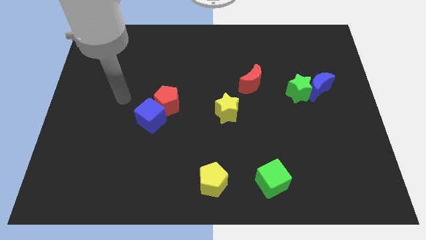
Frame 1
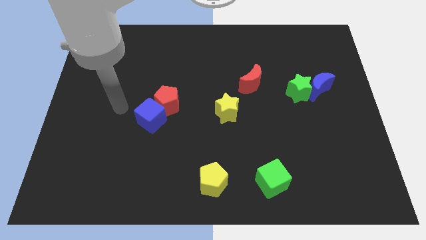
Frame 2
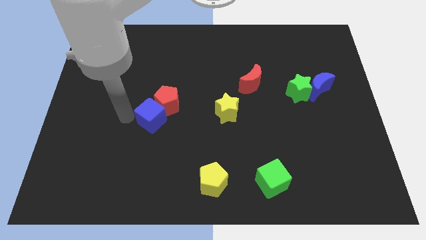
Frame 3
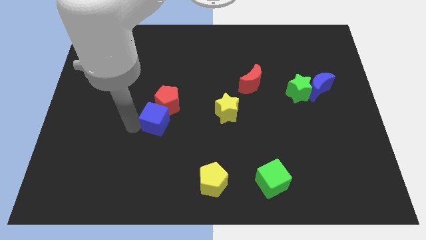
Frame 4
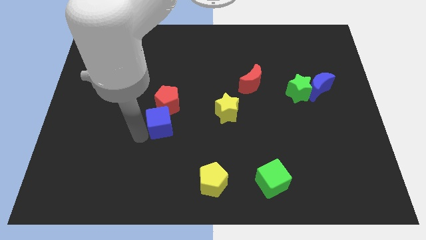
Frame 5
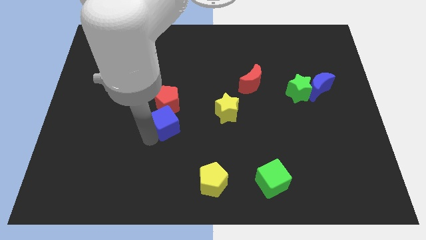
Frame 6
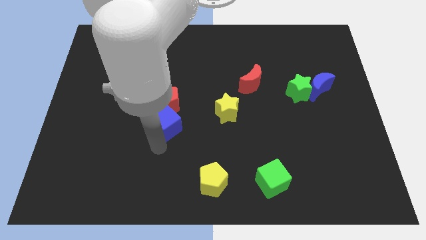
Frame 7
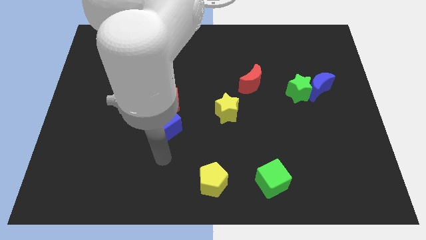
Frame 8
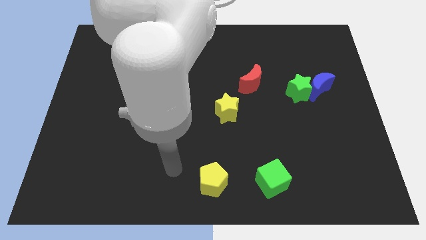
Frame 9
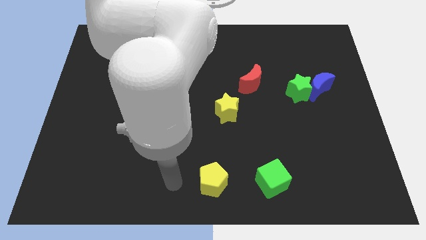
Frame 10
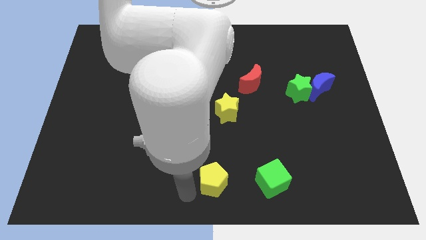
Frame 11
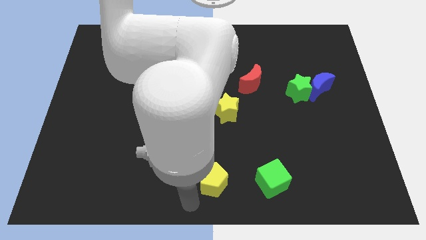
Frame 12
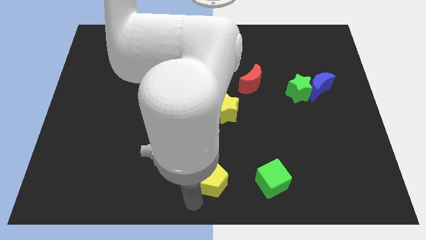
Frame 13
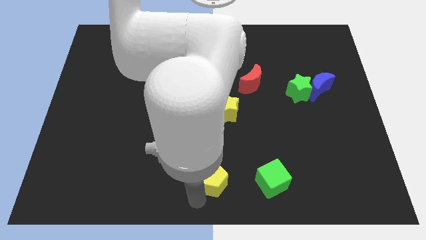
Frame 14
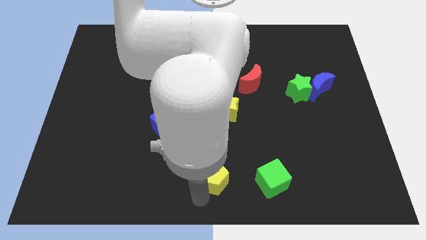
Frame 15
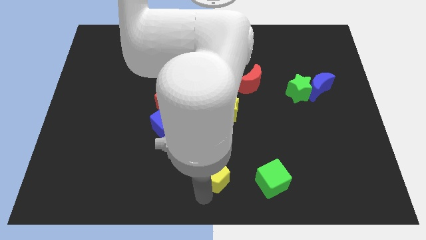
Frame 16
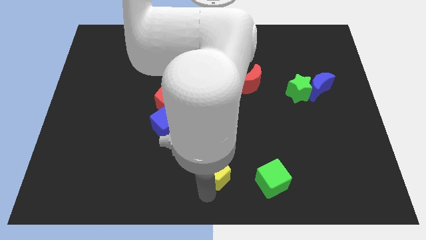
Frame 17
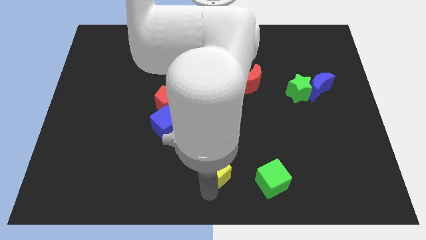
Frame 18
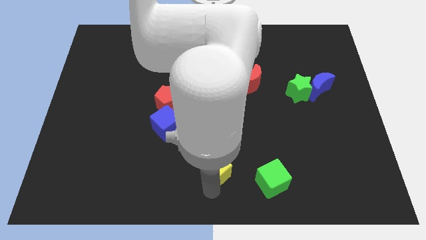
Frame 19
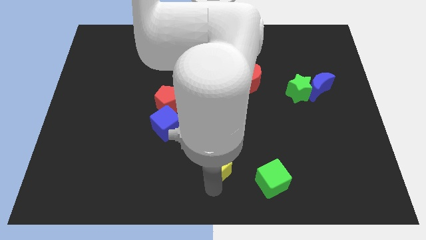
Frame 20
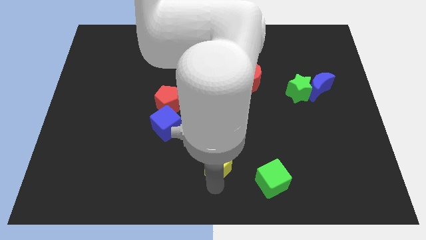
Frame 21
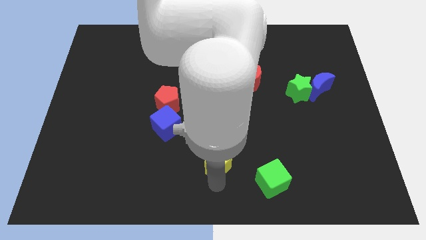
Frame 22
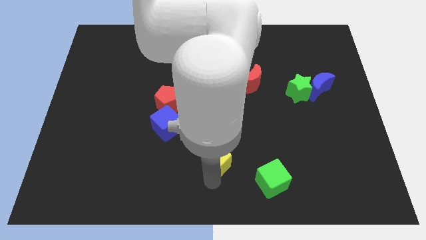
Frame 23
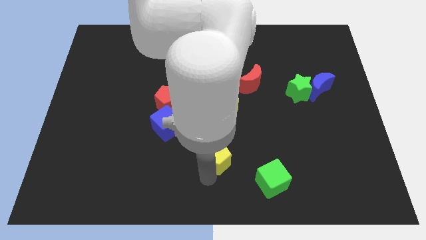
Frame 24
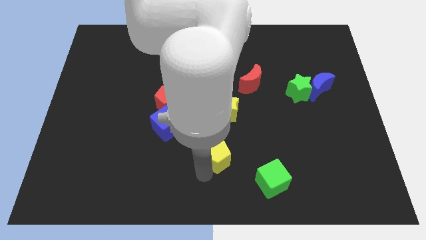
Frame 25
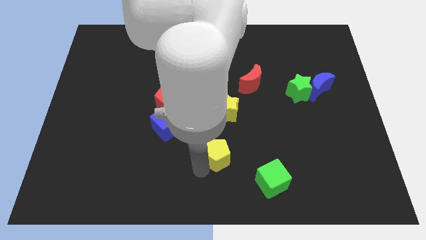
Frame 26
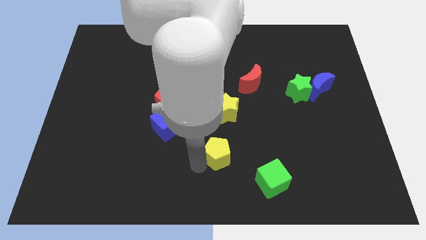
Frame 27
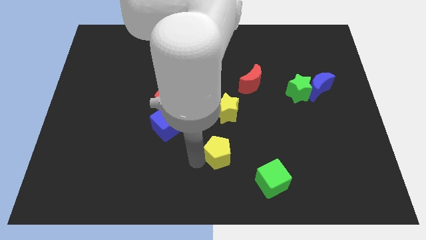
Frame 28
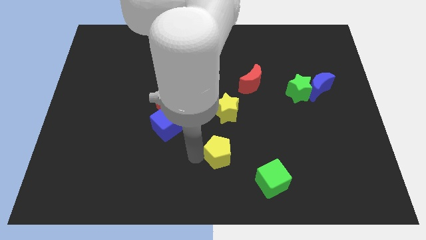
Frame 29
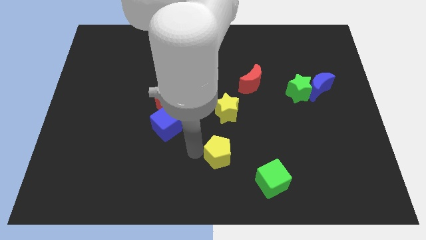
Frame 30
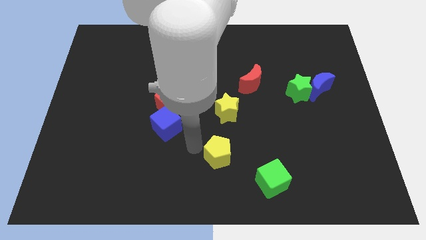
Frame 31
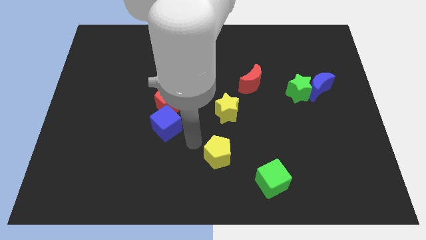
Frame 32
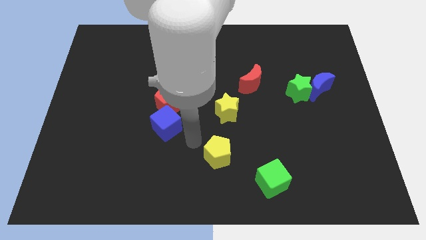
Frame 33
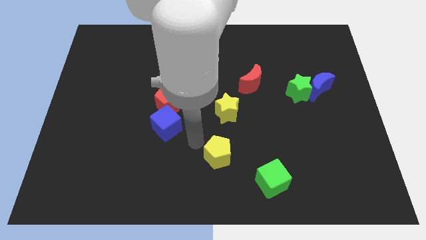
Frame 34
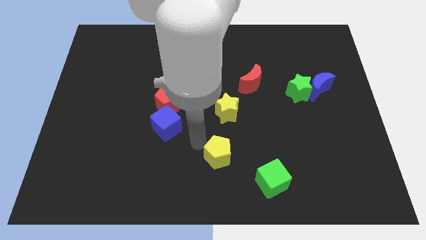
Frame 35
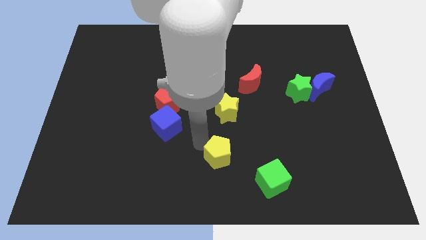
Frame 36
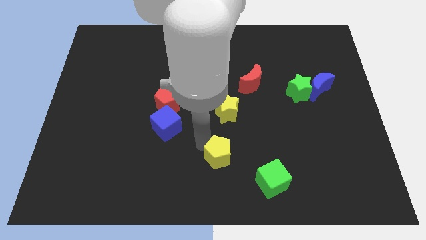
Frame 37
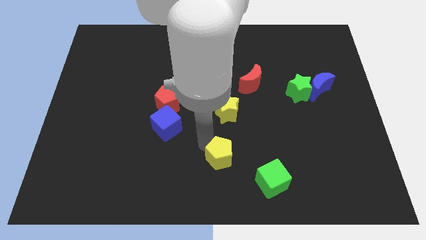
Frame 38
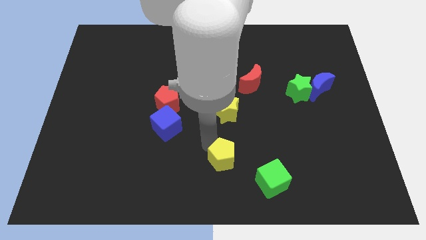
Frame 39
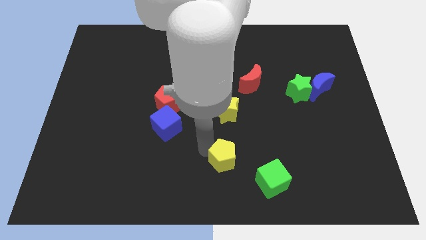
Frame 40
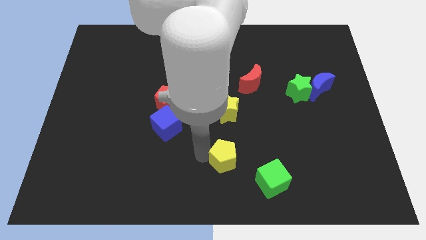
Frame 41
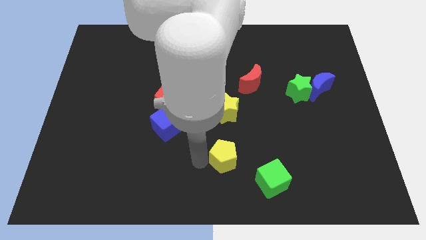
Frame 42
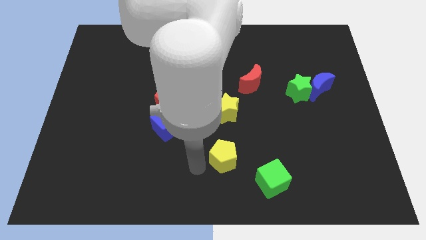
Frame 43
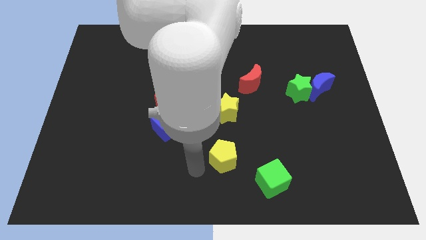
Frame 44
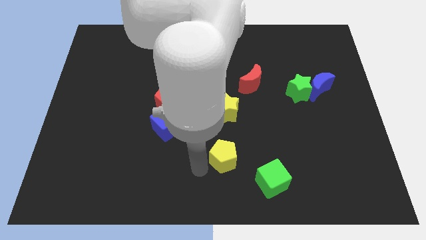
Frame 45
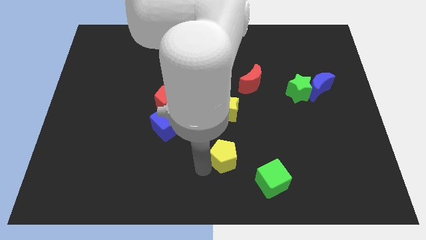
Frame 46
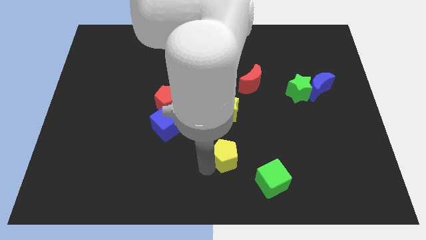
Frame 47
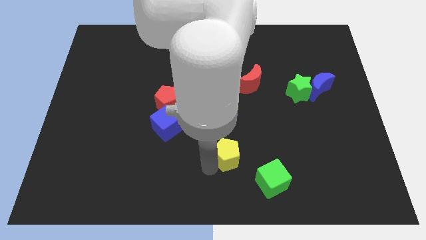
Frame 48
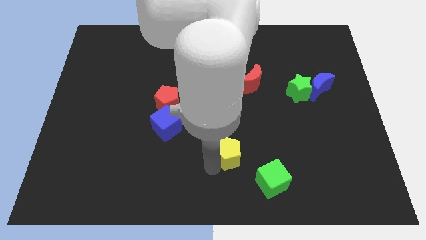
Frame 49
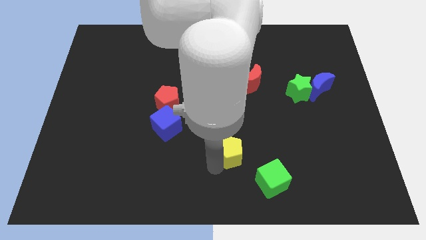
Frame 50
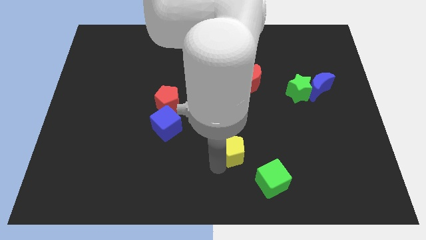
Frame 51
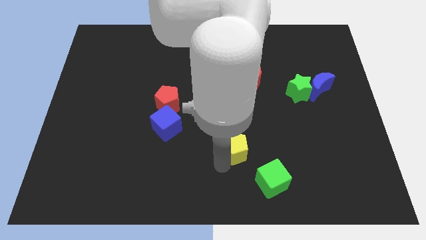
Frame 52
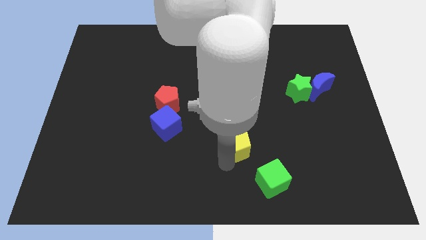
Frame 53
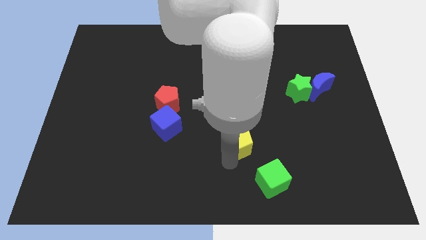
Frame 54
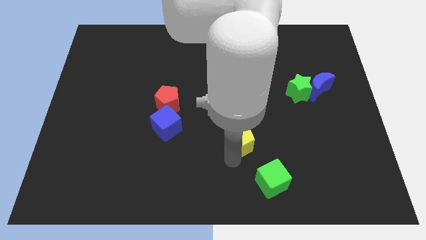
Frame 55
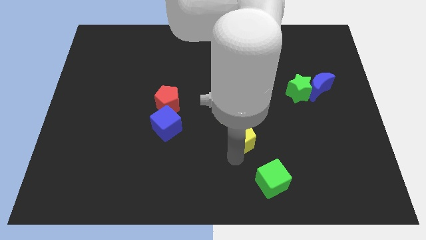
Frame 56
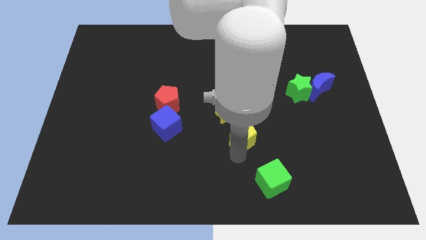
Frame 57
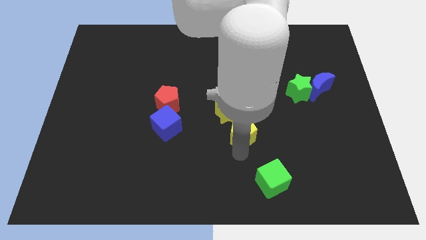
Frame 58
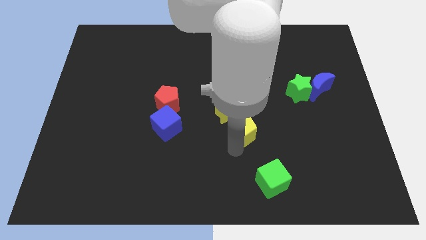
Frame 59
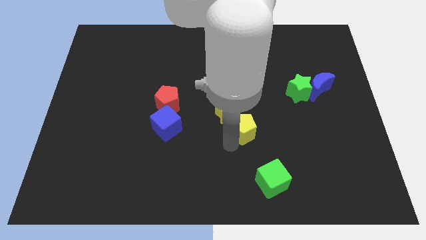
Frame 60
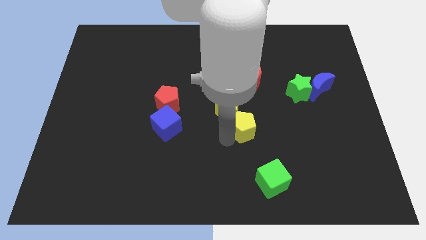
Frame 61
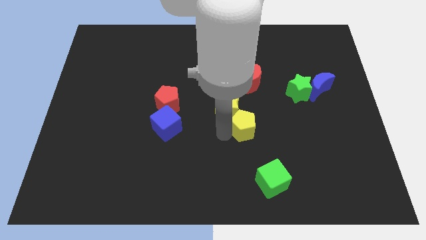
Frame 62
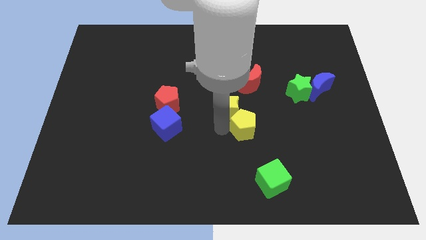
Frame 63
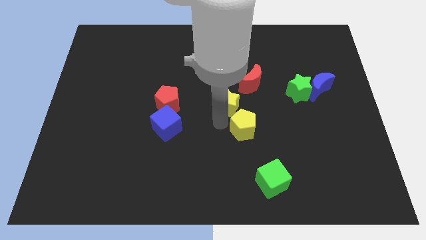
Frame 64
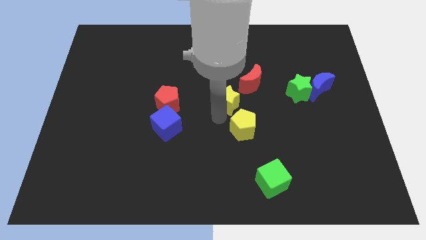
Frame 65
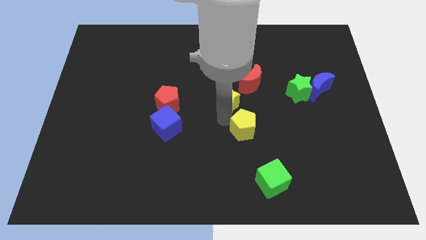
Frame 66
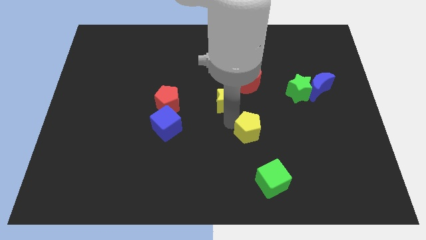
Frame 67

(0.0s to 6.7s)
slide the yellow pentagon to the top side of the green cube
